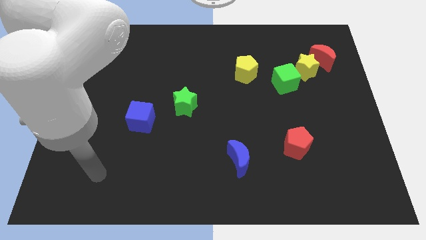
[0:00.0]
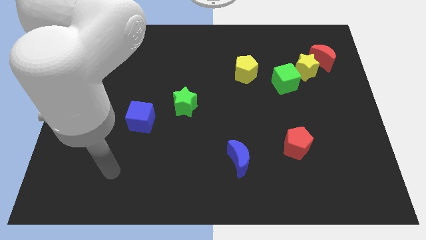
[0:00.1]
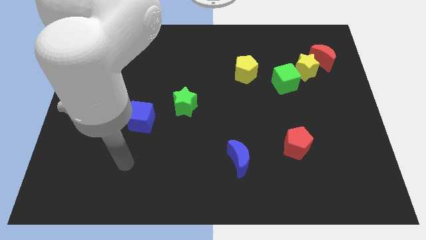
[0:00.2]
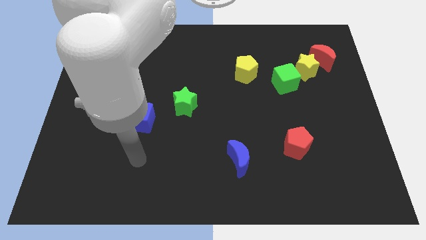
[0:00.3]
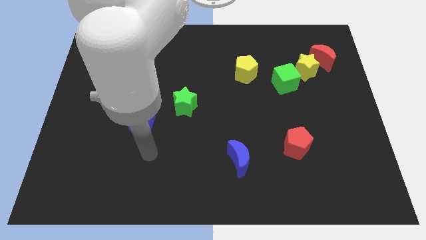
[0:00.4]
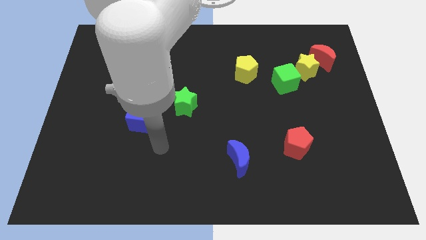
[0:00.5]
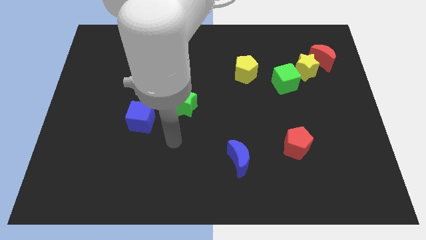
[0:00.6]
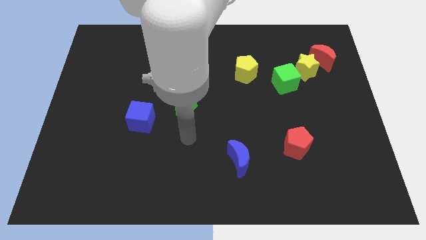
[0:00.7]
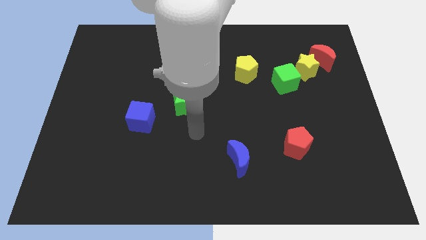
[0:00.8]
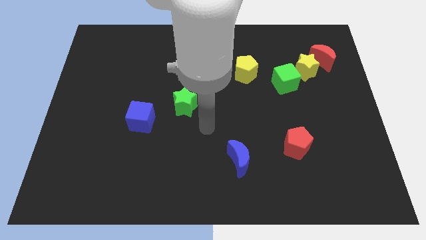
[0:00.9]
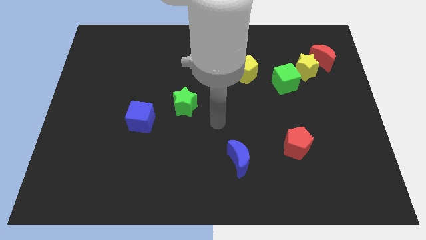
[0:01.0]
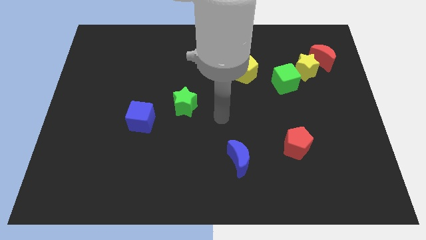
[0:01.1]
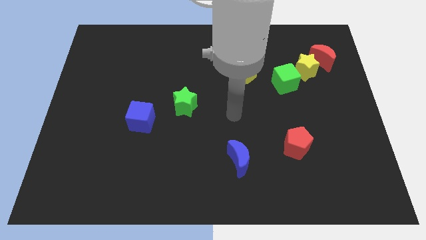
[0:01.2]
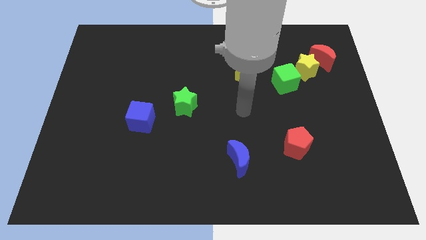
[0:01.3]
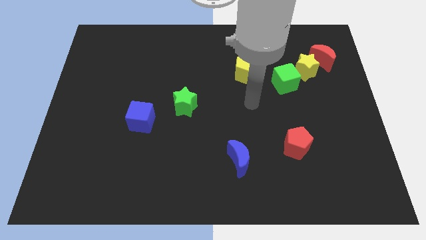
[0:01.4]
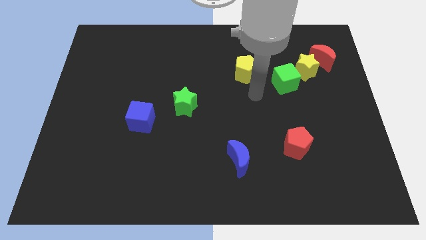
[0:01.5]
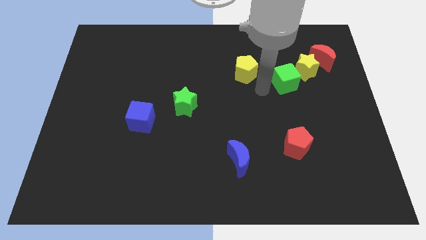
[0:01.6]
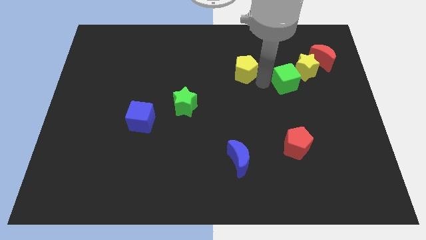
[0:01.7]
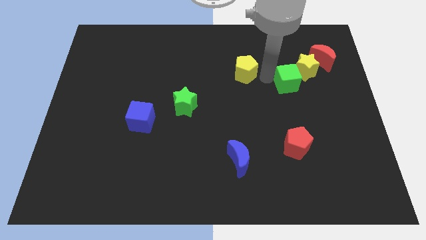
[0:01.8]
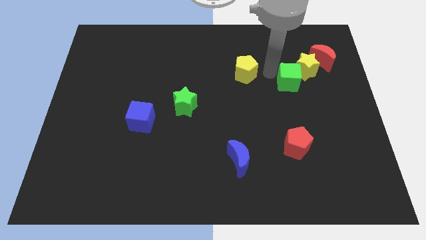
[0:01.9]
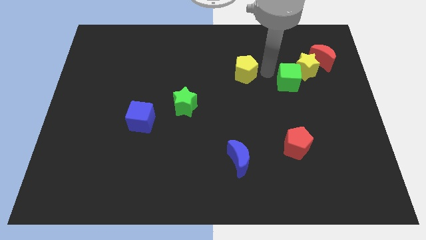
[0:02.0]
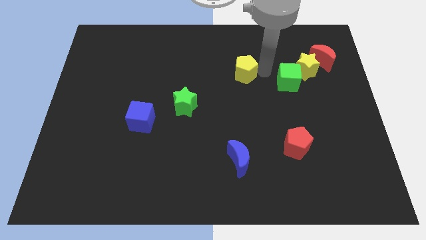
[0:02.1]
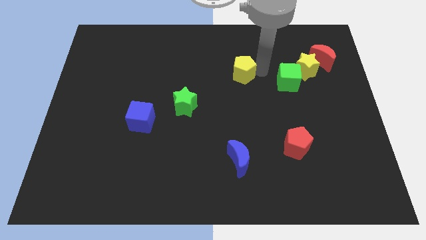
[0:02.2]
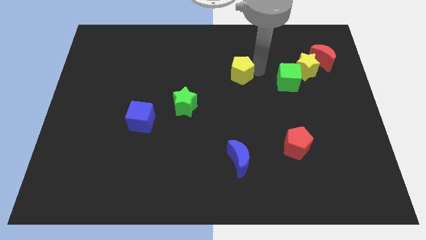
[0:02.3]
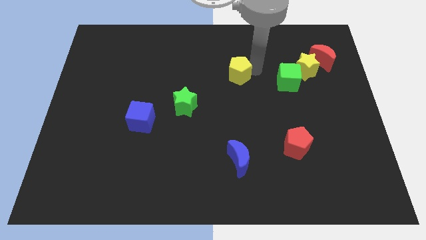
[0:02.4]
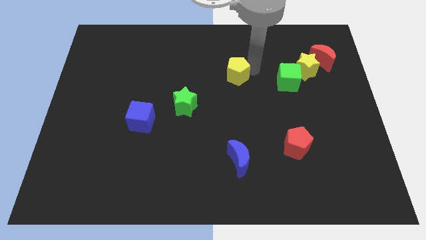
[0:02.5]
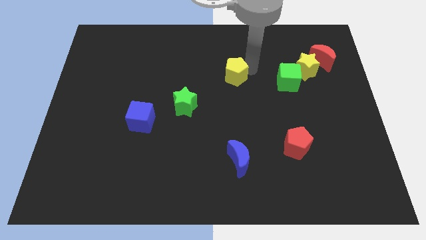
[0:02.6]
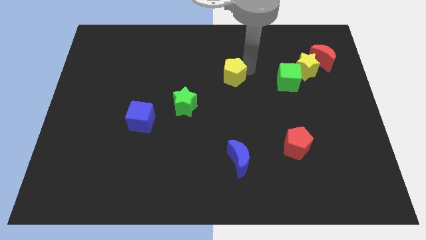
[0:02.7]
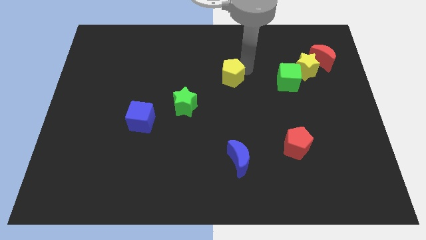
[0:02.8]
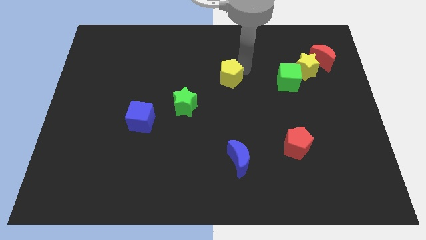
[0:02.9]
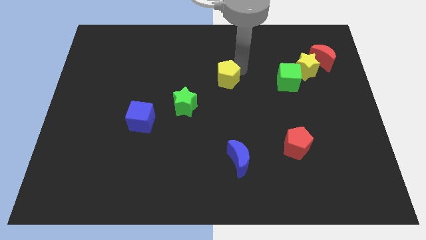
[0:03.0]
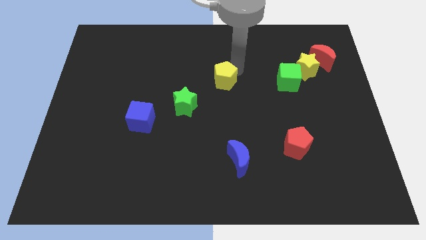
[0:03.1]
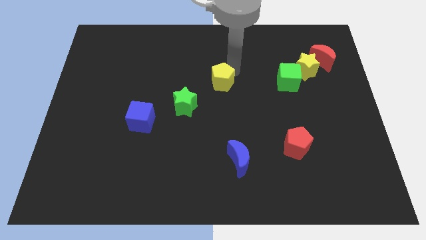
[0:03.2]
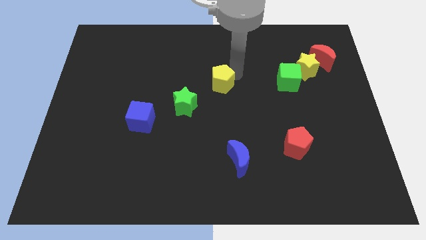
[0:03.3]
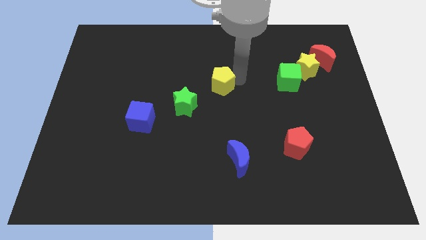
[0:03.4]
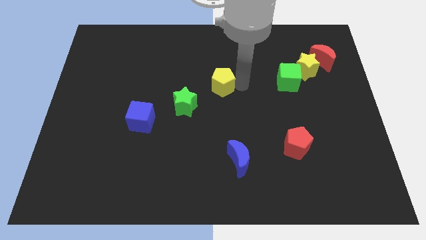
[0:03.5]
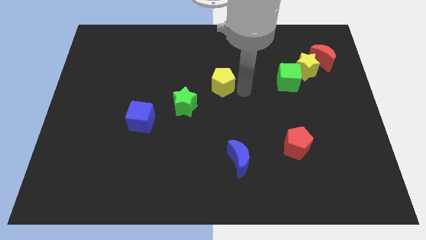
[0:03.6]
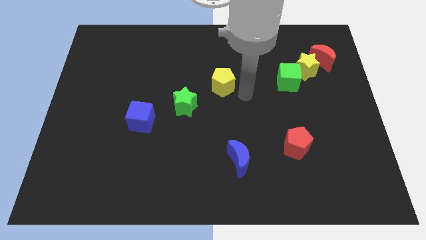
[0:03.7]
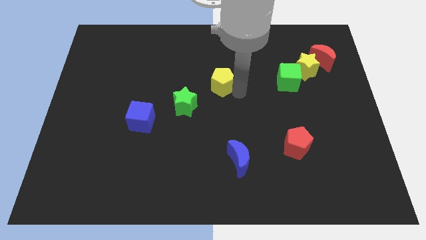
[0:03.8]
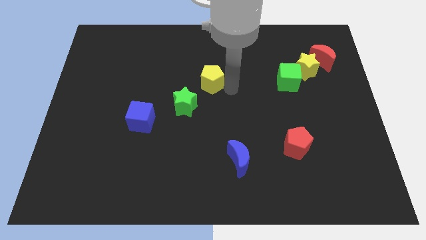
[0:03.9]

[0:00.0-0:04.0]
slide the yellow pentagon left a bit

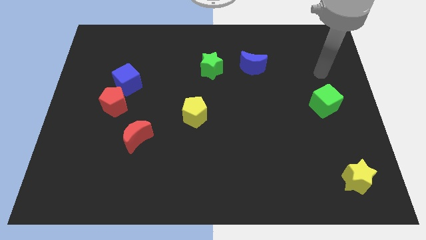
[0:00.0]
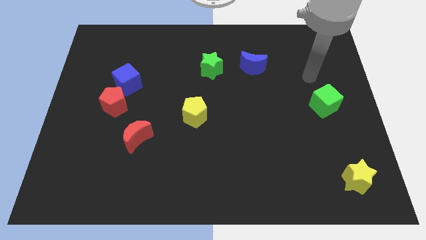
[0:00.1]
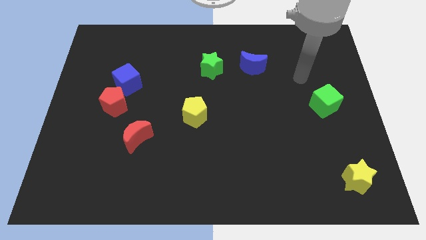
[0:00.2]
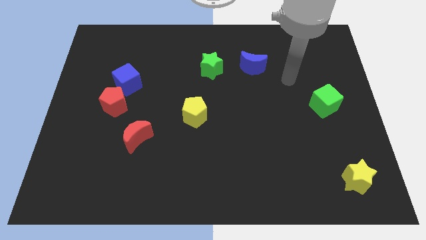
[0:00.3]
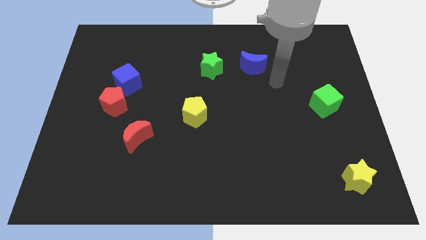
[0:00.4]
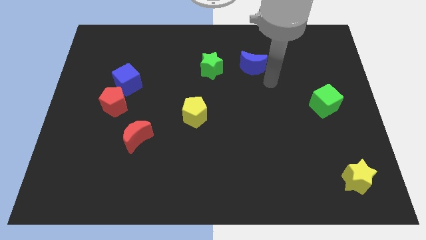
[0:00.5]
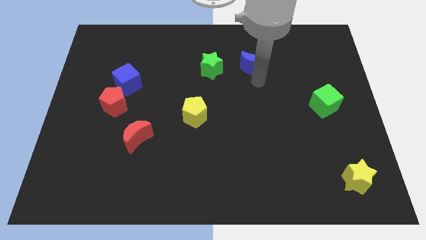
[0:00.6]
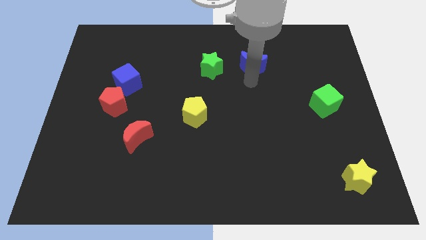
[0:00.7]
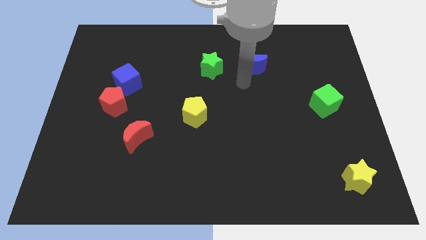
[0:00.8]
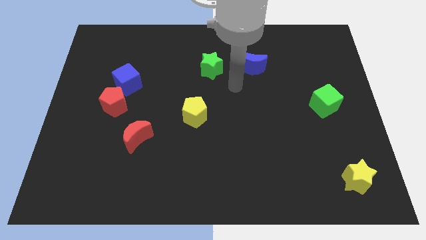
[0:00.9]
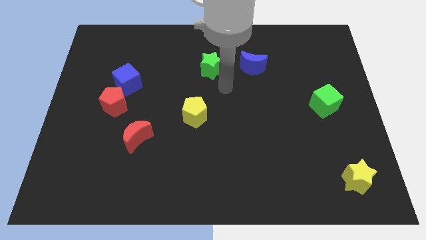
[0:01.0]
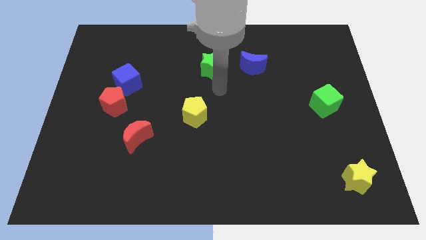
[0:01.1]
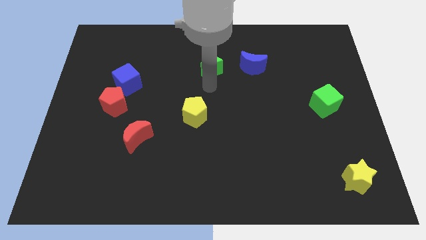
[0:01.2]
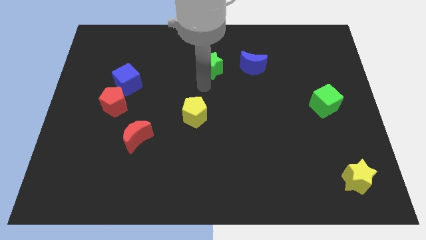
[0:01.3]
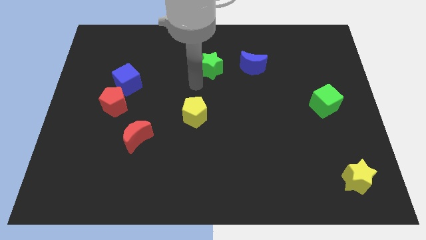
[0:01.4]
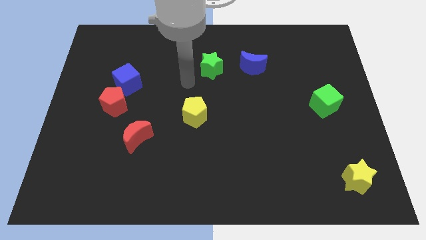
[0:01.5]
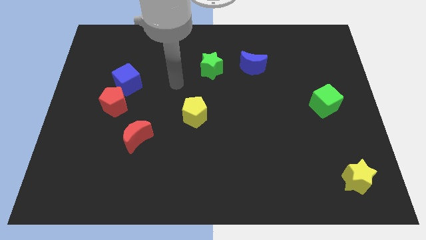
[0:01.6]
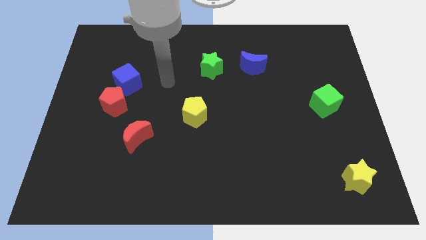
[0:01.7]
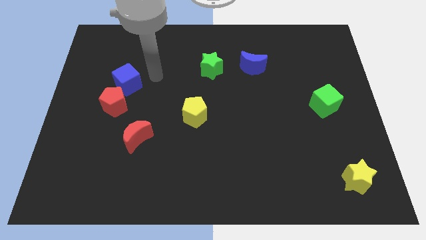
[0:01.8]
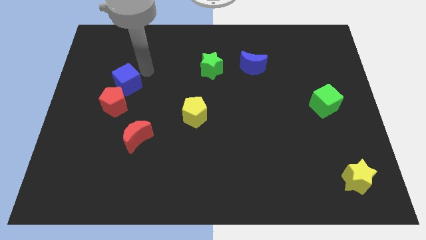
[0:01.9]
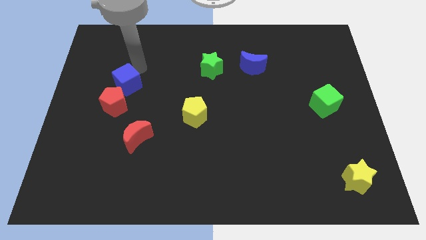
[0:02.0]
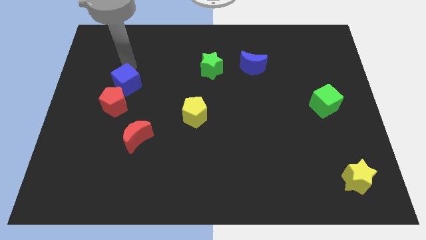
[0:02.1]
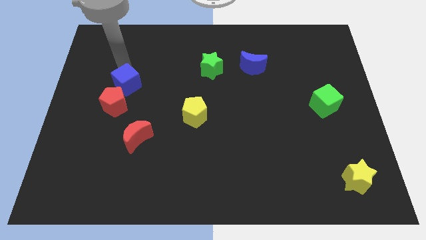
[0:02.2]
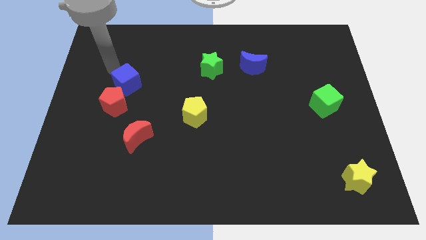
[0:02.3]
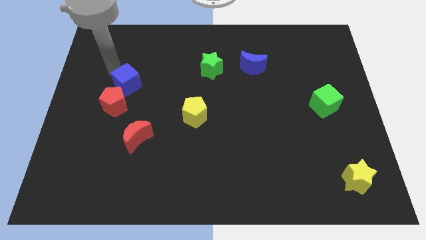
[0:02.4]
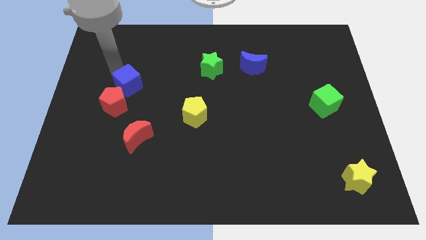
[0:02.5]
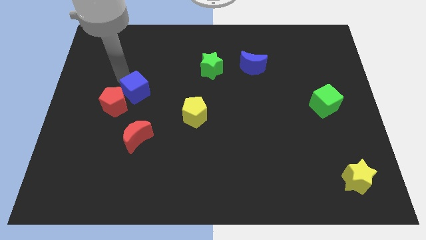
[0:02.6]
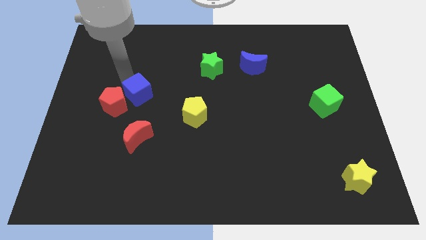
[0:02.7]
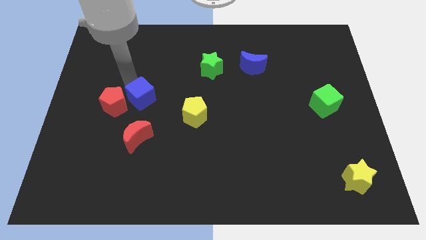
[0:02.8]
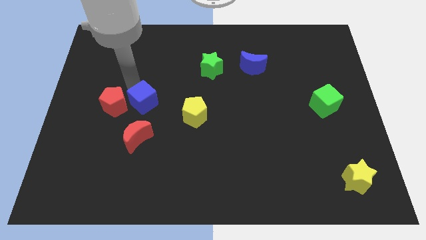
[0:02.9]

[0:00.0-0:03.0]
slightly push the blue cube downwards and to the right diagonally

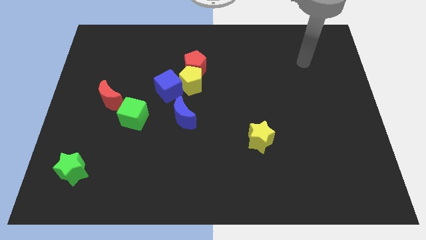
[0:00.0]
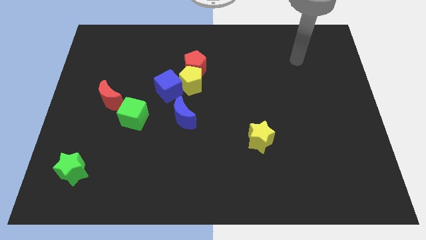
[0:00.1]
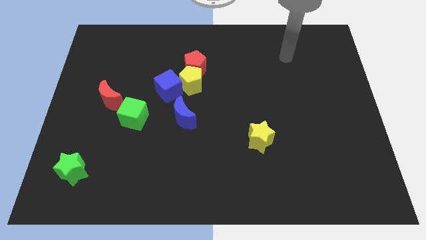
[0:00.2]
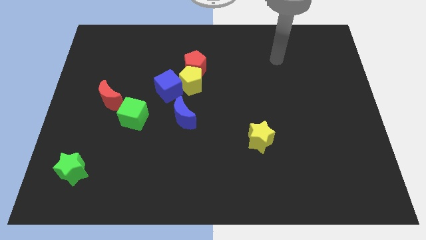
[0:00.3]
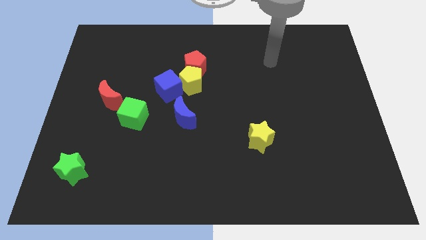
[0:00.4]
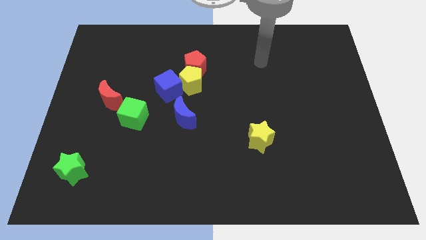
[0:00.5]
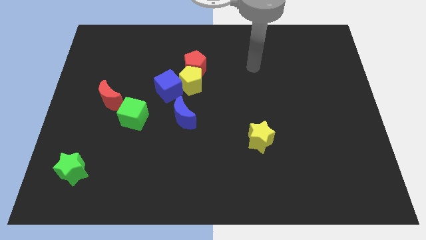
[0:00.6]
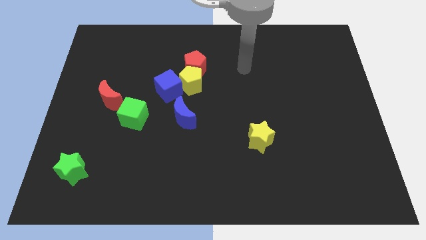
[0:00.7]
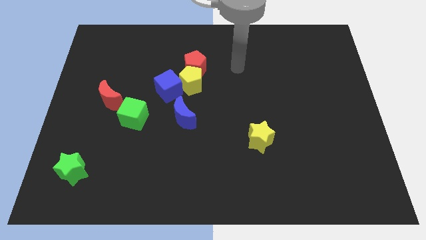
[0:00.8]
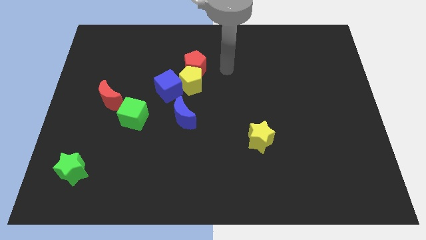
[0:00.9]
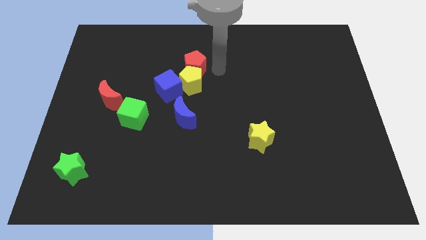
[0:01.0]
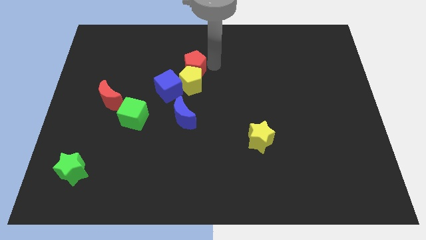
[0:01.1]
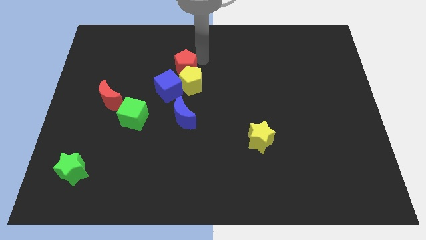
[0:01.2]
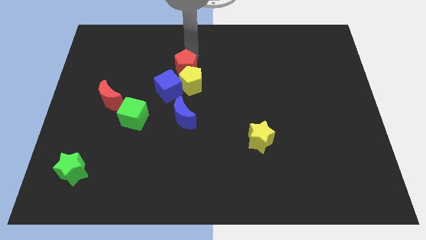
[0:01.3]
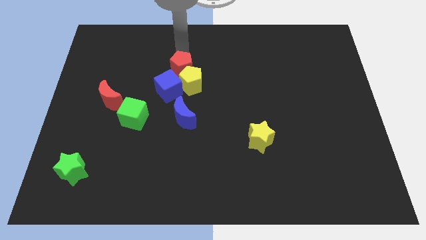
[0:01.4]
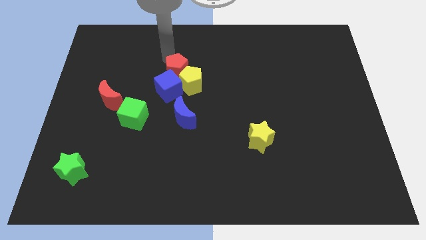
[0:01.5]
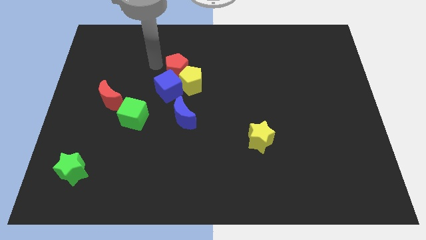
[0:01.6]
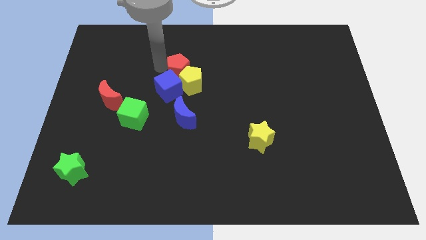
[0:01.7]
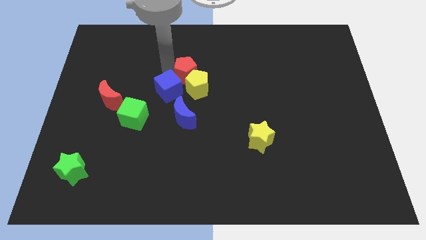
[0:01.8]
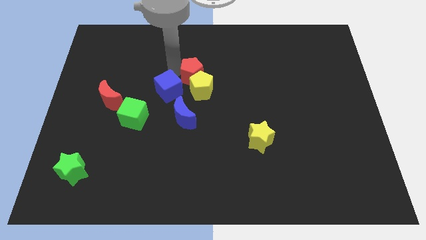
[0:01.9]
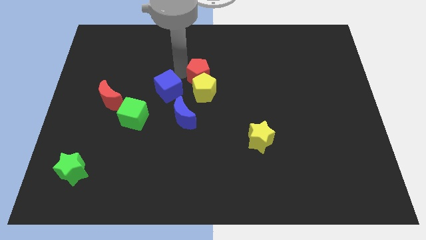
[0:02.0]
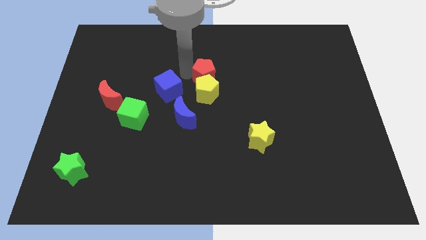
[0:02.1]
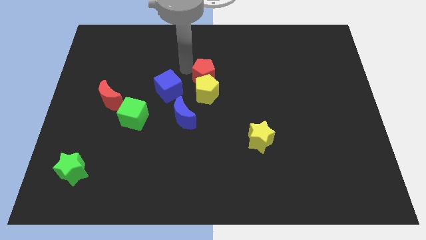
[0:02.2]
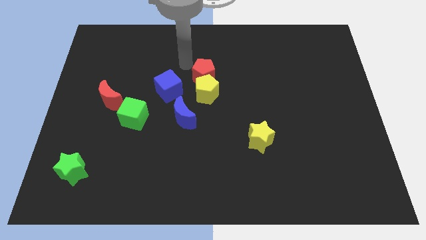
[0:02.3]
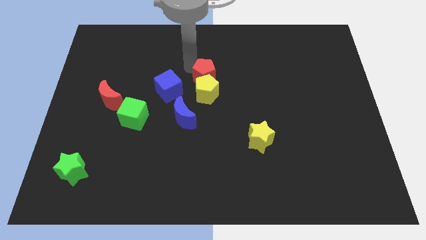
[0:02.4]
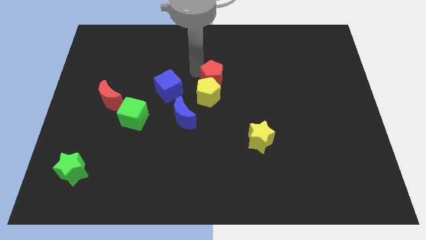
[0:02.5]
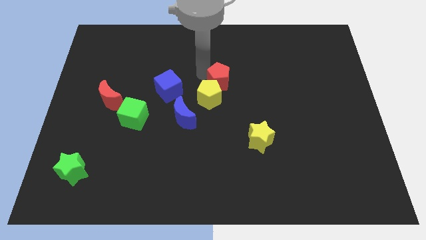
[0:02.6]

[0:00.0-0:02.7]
push the red pentagon somewhat downwards and then to the right
